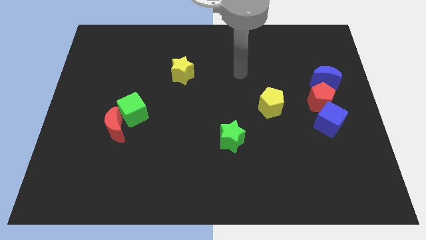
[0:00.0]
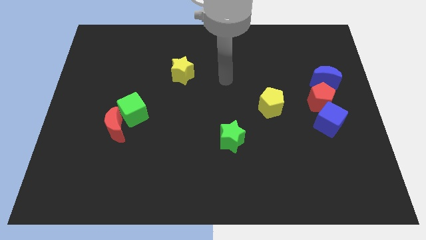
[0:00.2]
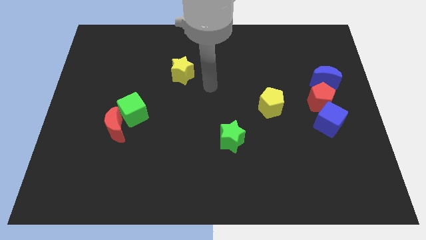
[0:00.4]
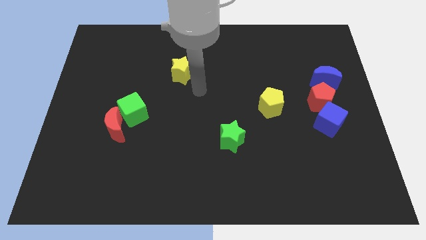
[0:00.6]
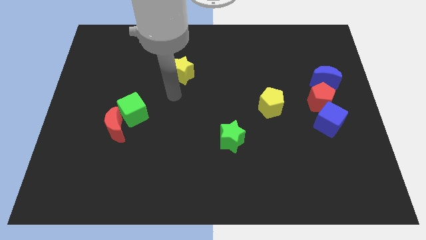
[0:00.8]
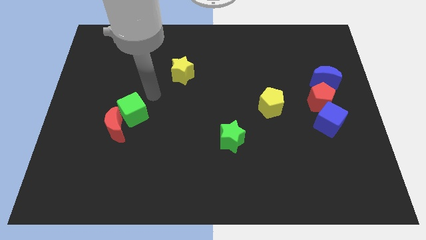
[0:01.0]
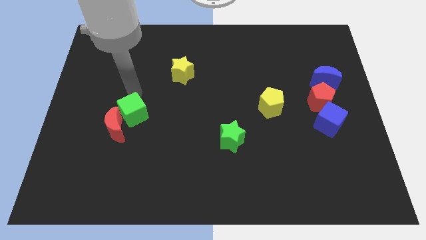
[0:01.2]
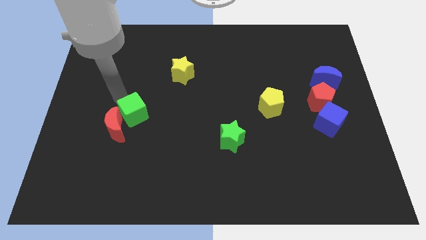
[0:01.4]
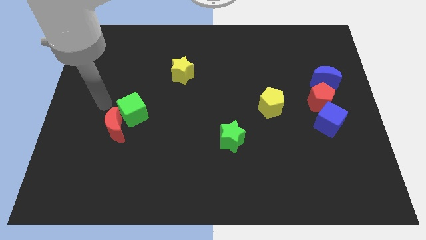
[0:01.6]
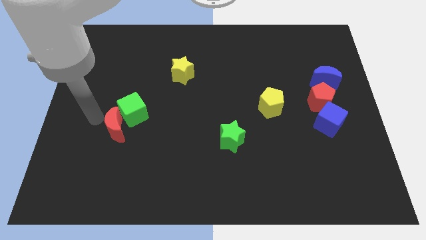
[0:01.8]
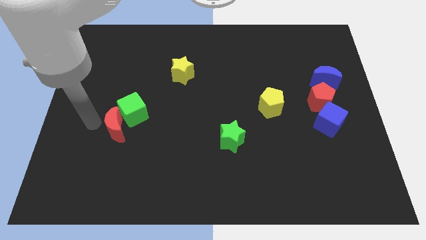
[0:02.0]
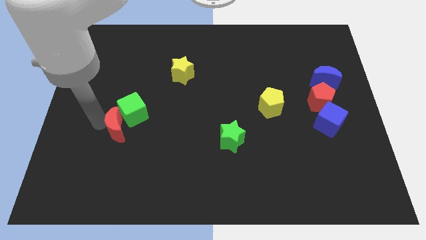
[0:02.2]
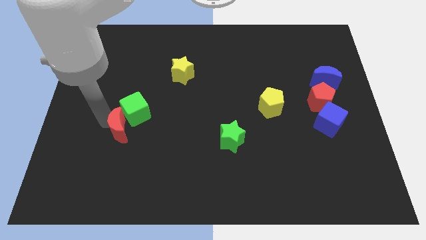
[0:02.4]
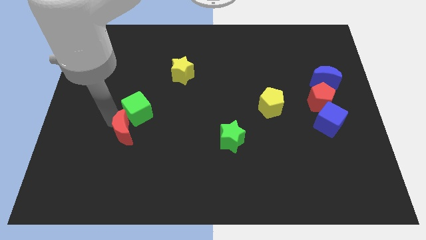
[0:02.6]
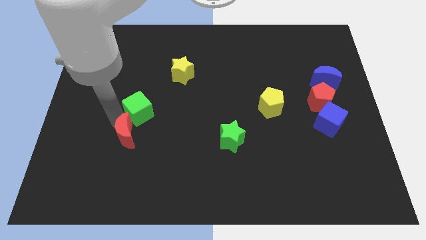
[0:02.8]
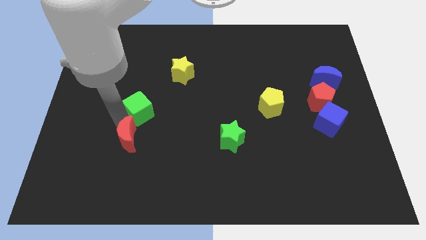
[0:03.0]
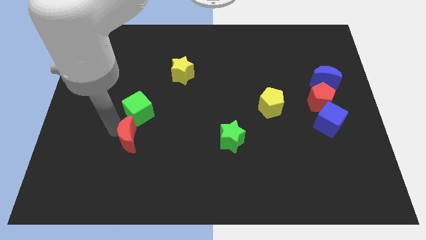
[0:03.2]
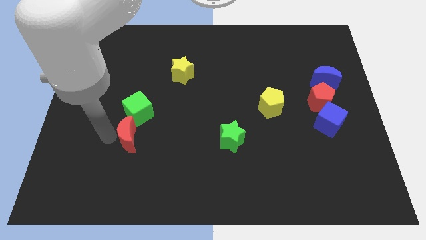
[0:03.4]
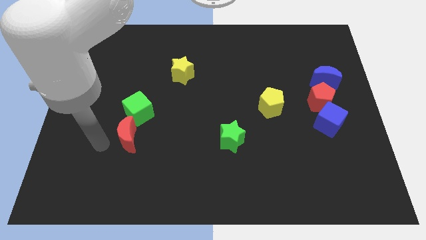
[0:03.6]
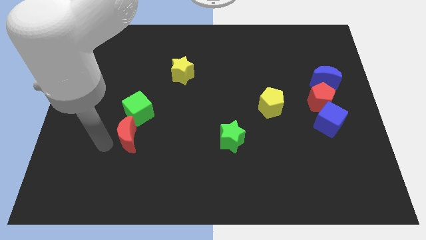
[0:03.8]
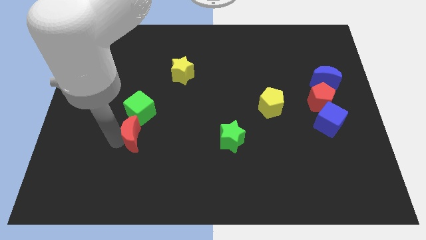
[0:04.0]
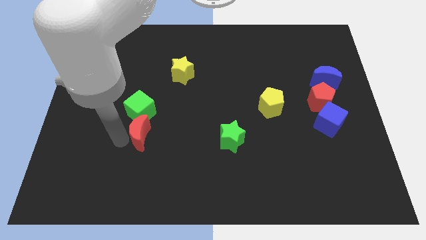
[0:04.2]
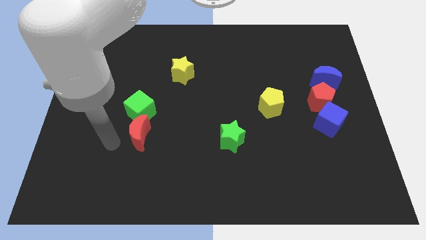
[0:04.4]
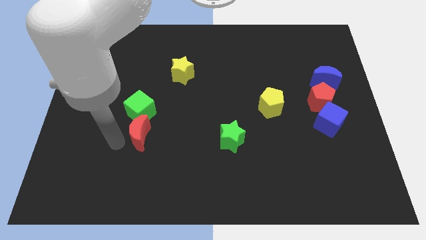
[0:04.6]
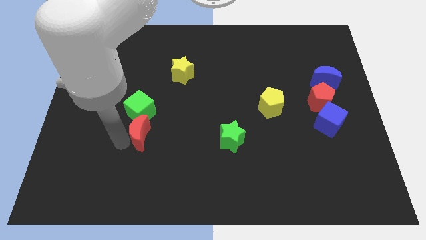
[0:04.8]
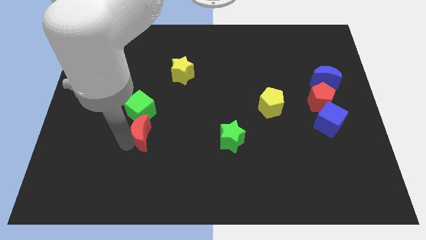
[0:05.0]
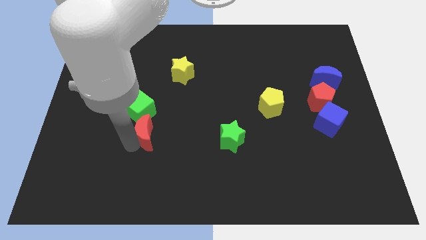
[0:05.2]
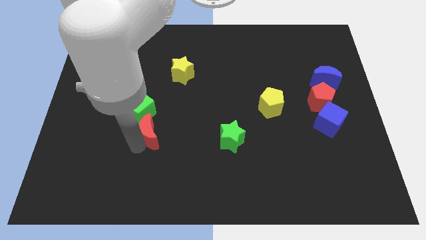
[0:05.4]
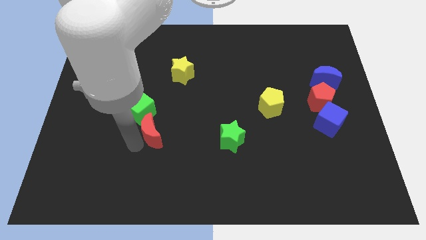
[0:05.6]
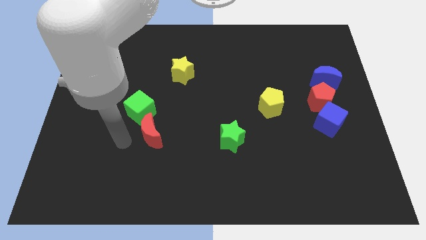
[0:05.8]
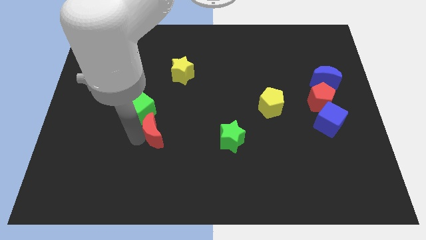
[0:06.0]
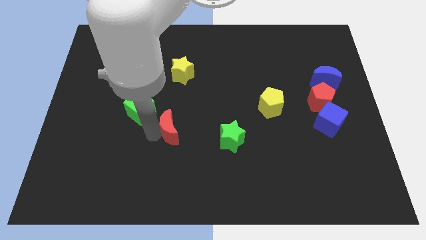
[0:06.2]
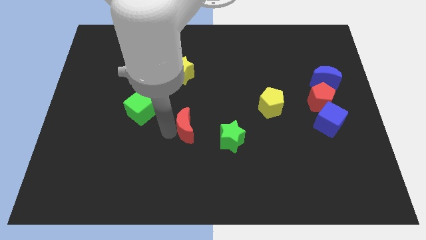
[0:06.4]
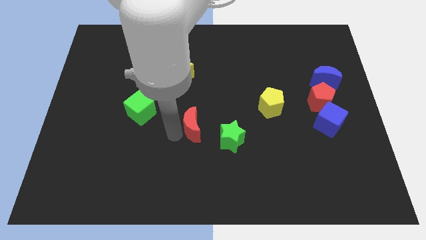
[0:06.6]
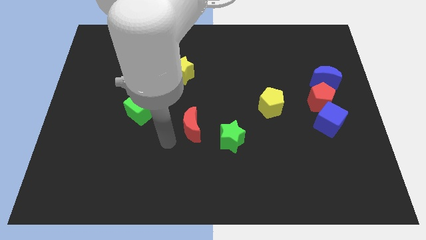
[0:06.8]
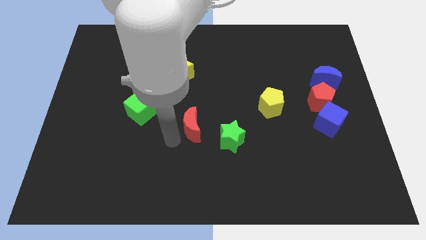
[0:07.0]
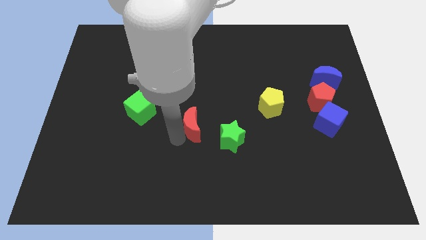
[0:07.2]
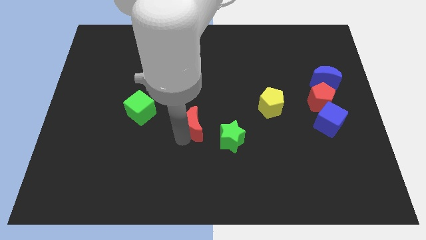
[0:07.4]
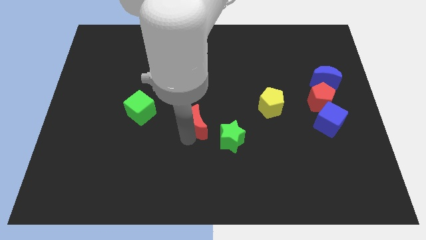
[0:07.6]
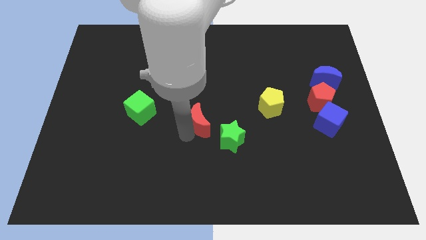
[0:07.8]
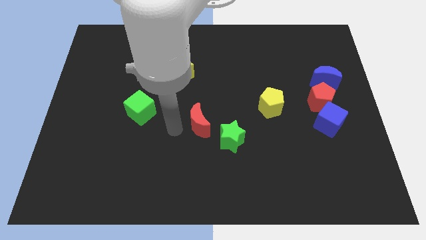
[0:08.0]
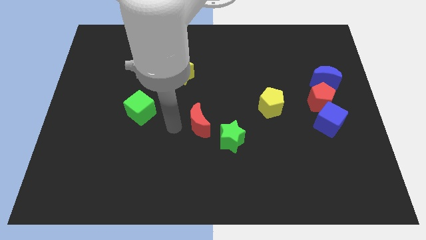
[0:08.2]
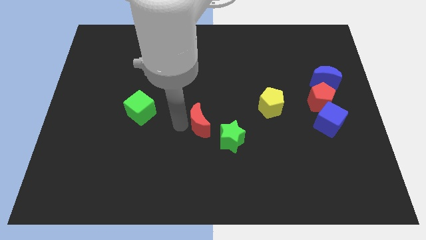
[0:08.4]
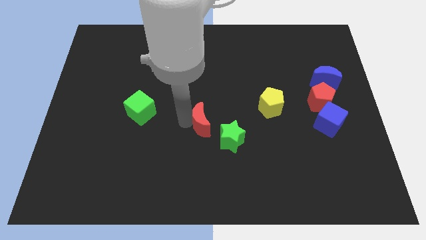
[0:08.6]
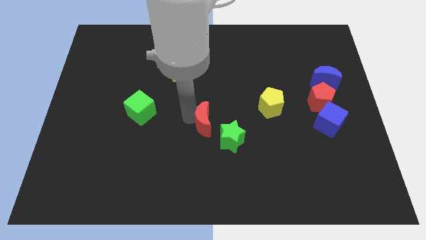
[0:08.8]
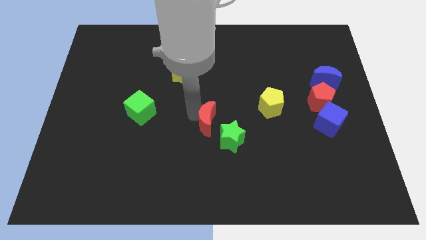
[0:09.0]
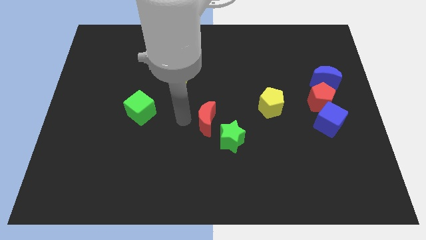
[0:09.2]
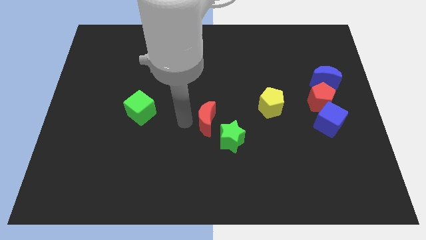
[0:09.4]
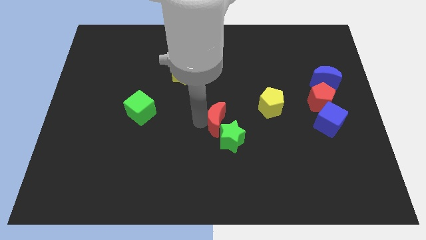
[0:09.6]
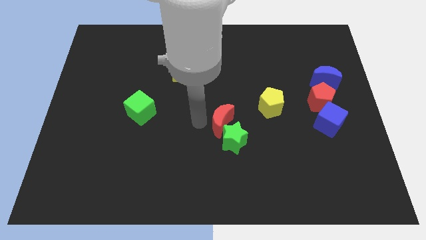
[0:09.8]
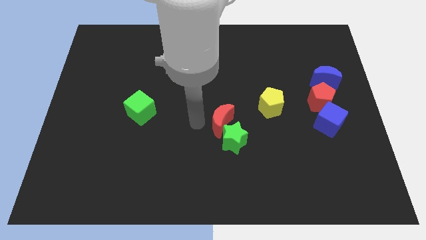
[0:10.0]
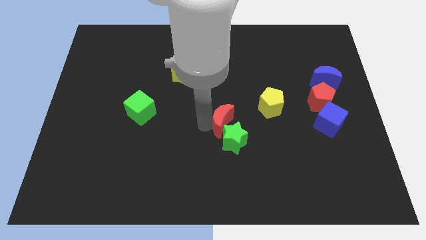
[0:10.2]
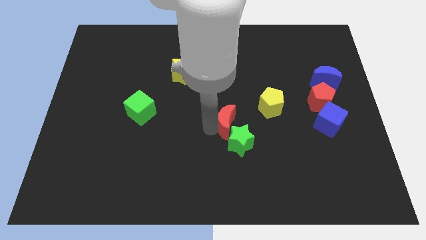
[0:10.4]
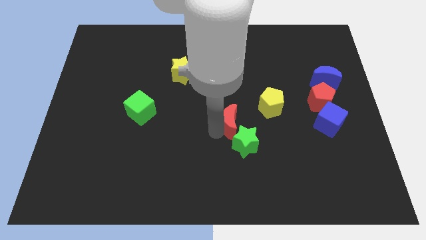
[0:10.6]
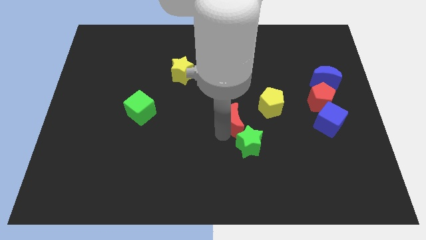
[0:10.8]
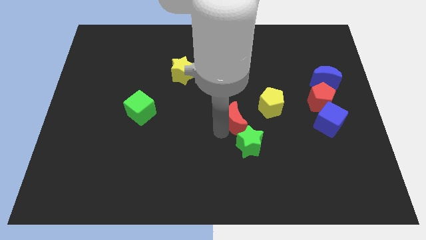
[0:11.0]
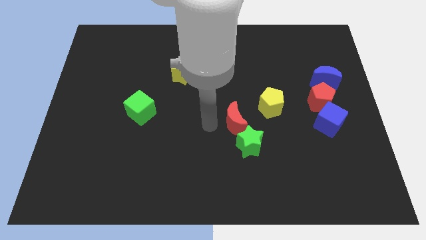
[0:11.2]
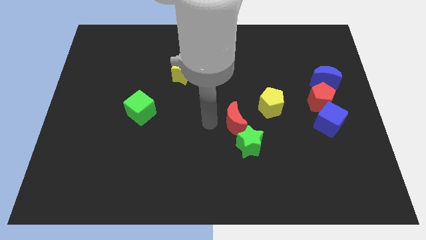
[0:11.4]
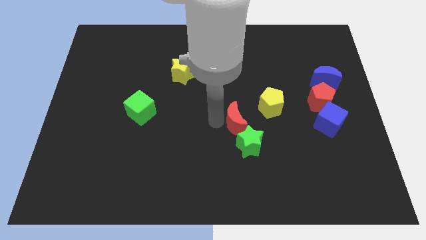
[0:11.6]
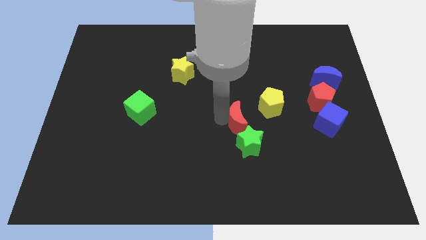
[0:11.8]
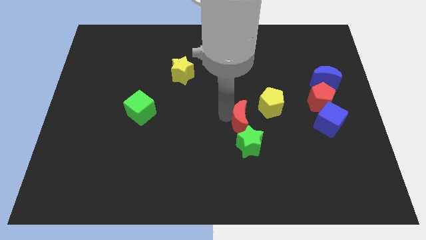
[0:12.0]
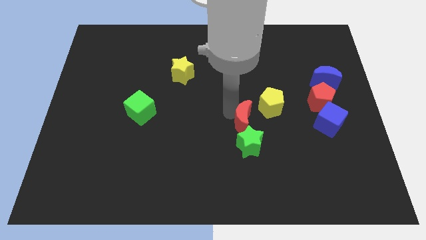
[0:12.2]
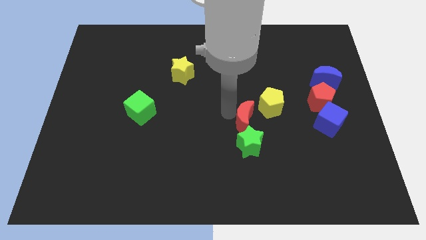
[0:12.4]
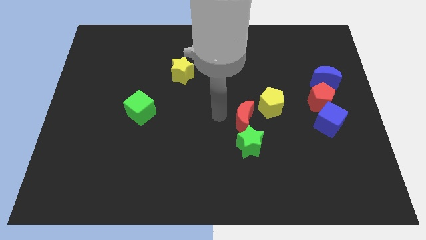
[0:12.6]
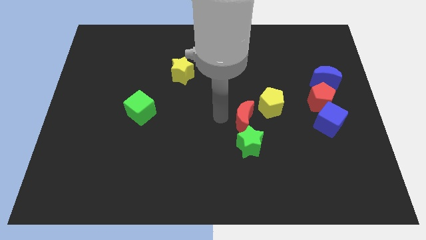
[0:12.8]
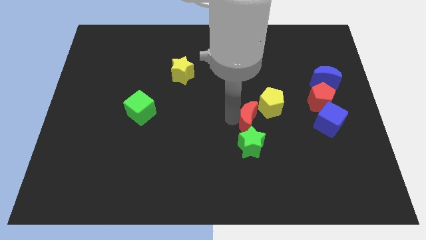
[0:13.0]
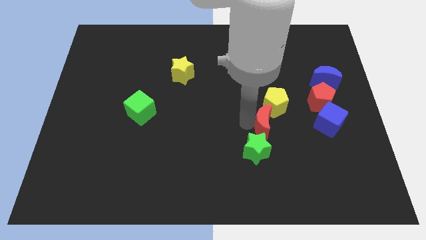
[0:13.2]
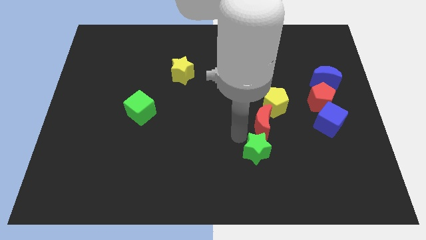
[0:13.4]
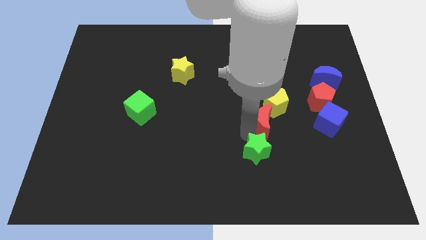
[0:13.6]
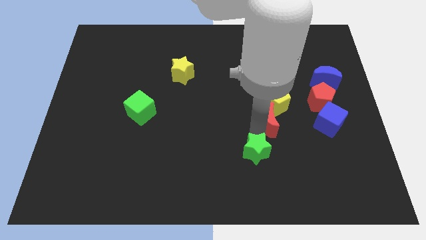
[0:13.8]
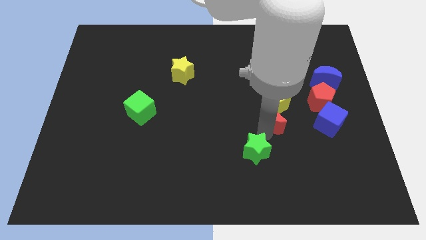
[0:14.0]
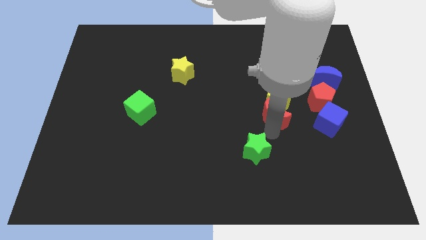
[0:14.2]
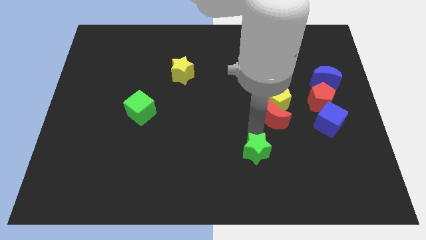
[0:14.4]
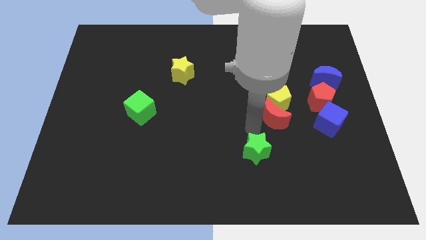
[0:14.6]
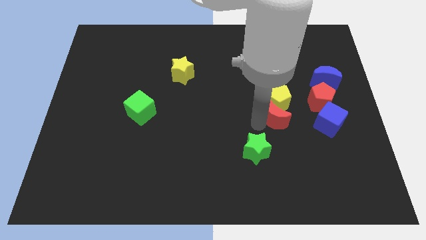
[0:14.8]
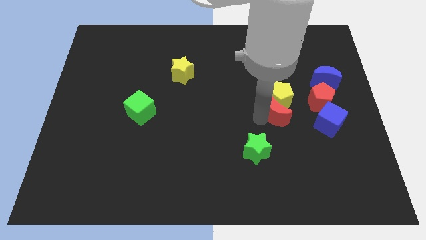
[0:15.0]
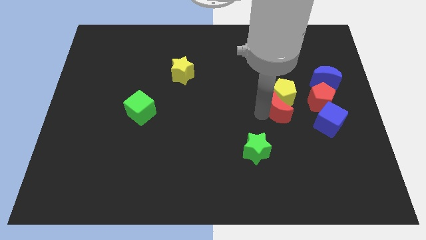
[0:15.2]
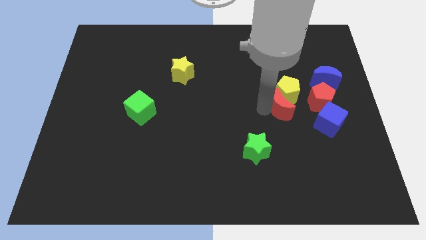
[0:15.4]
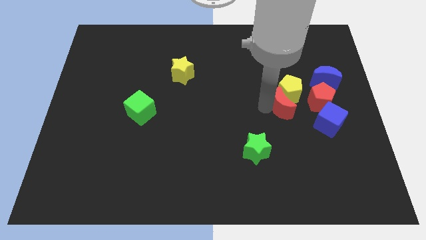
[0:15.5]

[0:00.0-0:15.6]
move the red moon to the top left side of the blue cube
